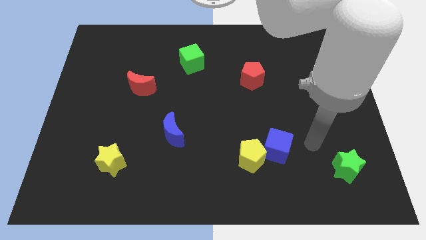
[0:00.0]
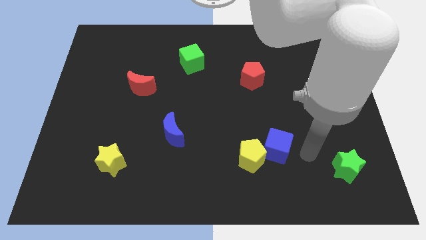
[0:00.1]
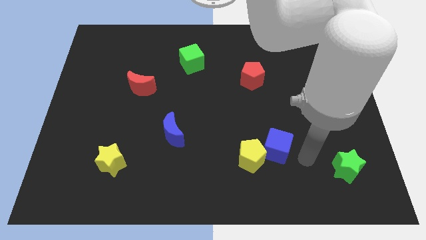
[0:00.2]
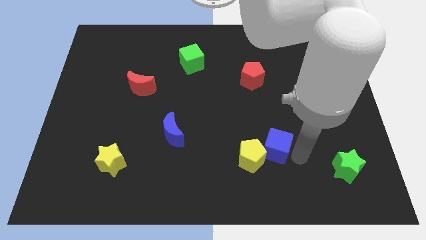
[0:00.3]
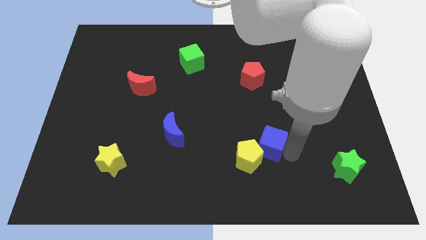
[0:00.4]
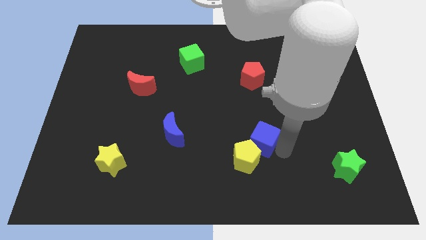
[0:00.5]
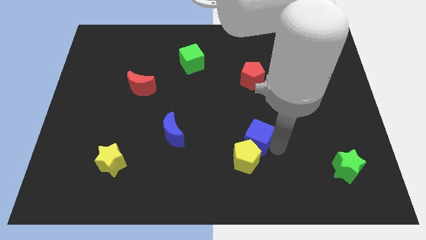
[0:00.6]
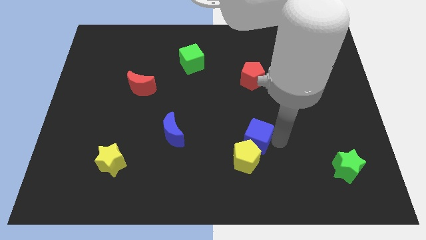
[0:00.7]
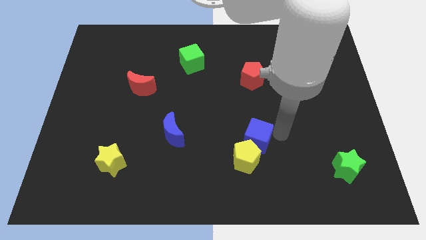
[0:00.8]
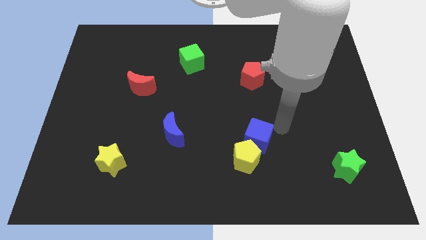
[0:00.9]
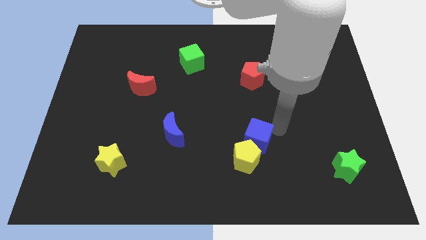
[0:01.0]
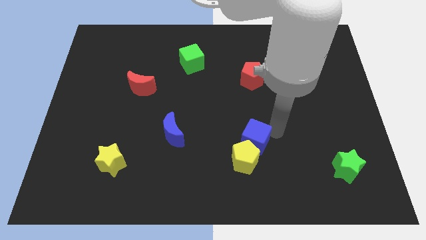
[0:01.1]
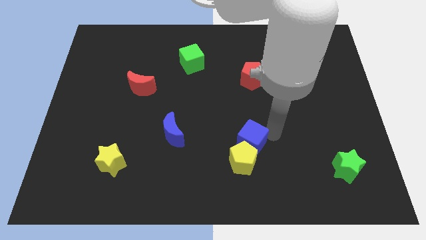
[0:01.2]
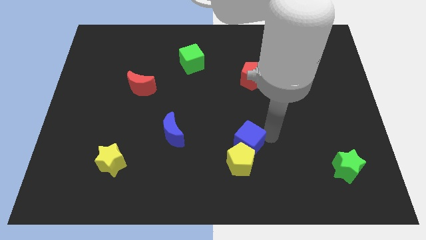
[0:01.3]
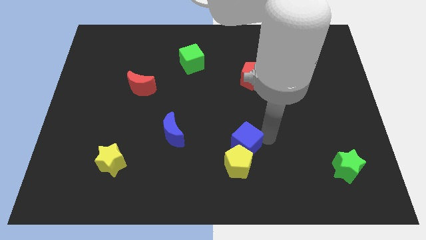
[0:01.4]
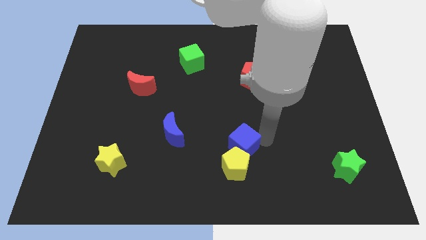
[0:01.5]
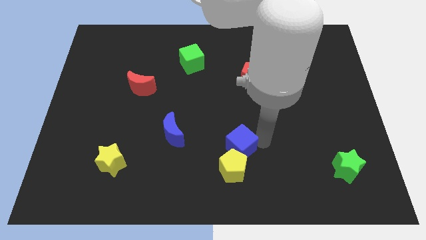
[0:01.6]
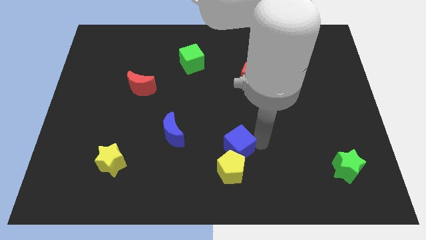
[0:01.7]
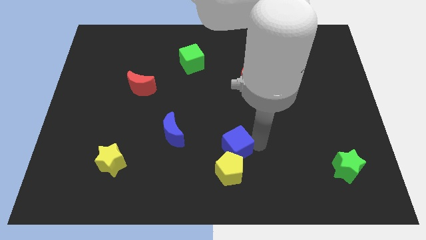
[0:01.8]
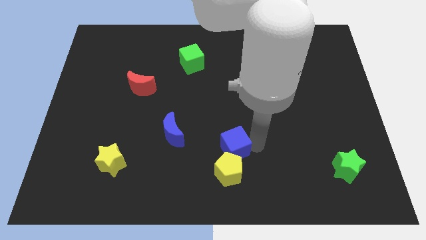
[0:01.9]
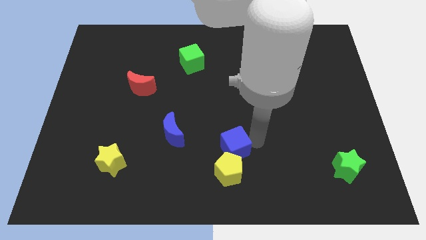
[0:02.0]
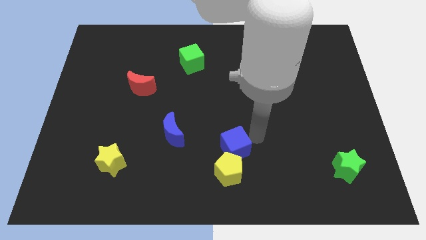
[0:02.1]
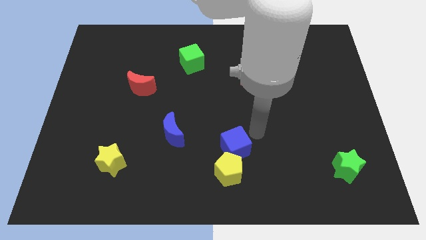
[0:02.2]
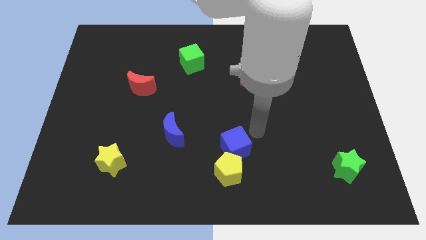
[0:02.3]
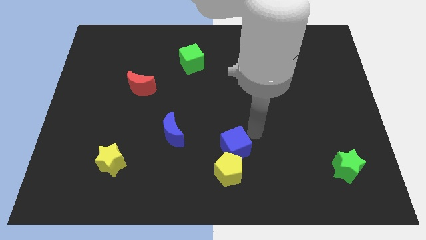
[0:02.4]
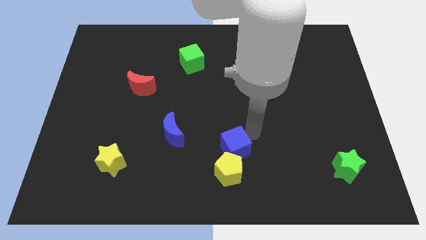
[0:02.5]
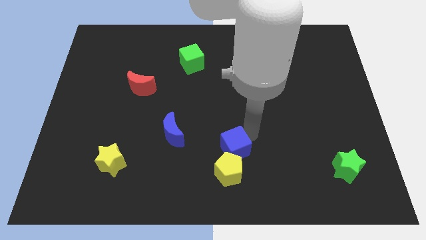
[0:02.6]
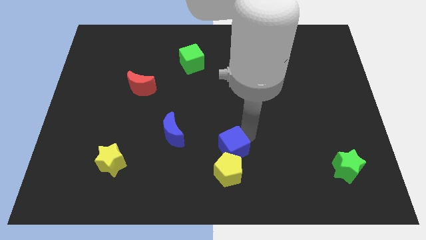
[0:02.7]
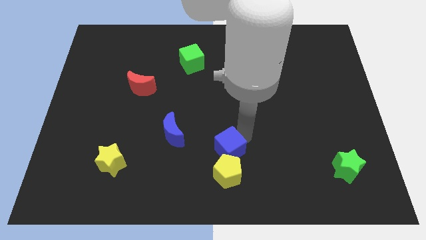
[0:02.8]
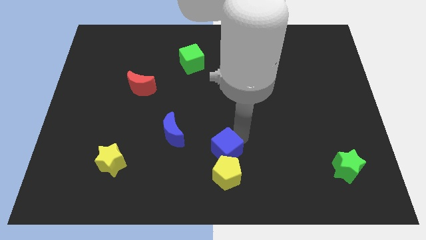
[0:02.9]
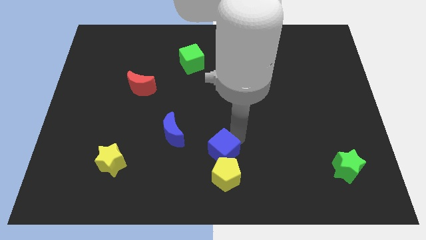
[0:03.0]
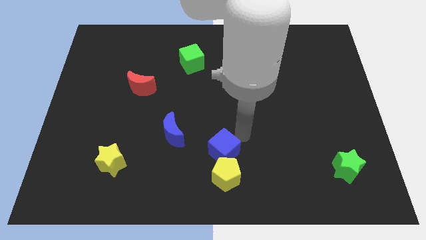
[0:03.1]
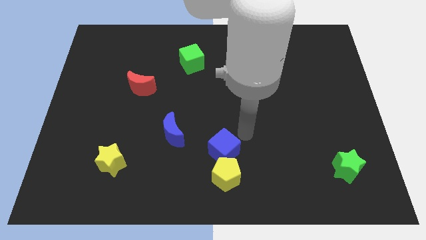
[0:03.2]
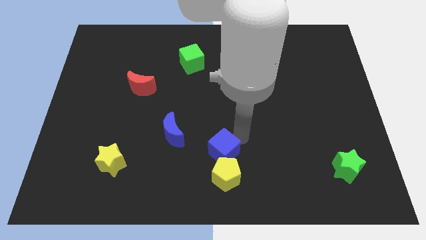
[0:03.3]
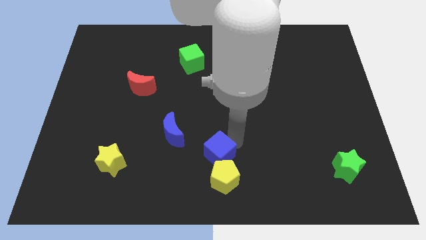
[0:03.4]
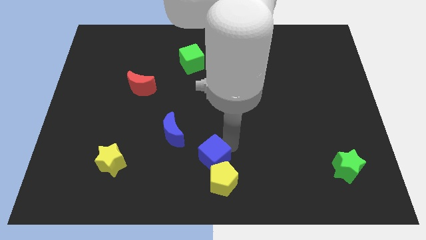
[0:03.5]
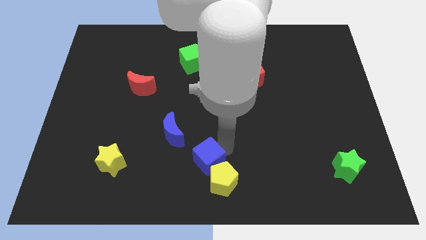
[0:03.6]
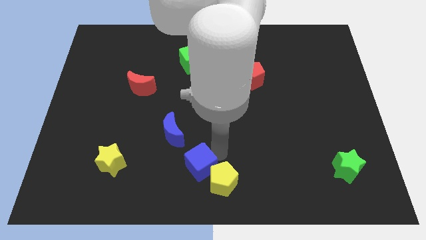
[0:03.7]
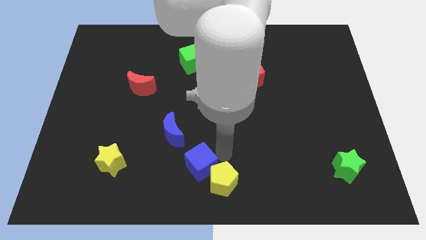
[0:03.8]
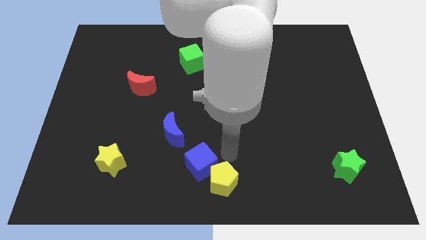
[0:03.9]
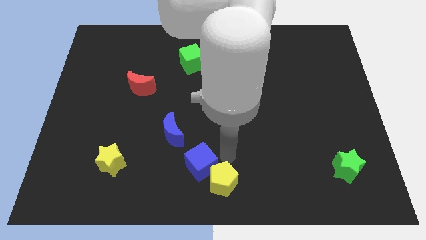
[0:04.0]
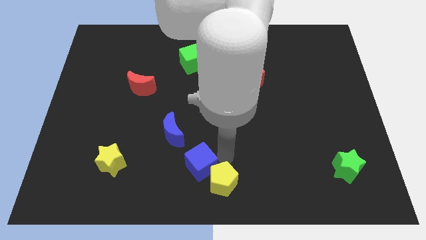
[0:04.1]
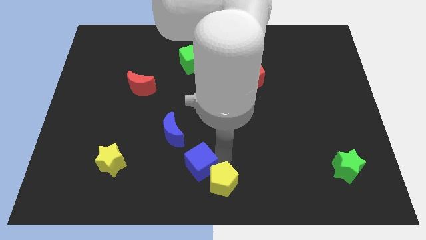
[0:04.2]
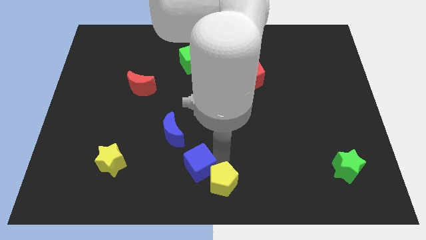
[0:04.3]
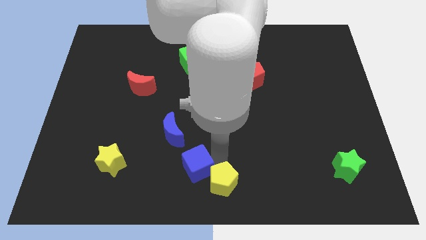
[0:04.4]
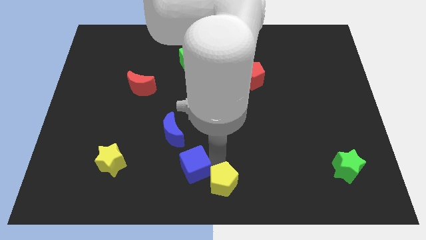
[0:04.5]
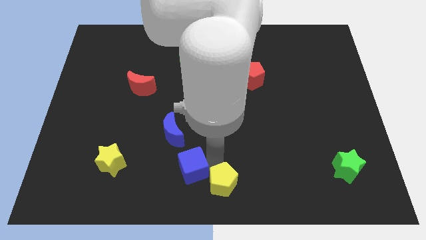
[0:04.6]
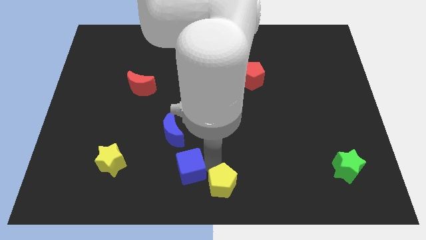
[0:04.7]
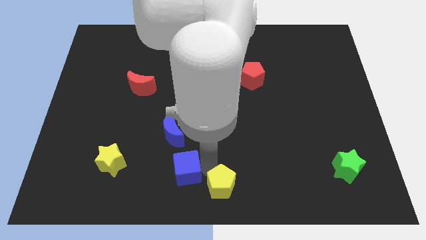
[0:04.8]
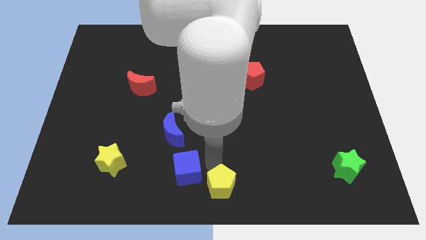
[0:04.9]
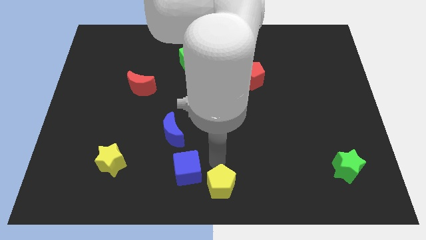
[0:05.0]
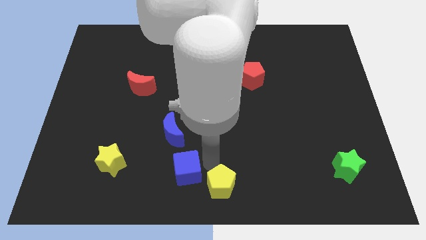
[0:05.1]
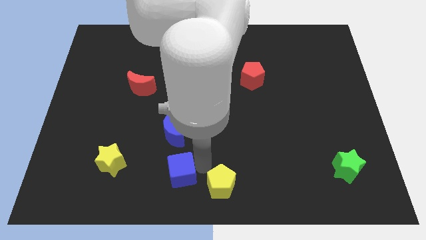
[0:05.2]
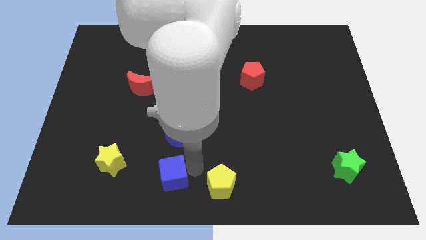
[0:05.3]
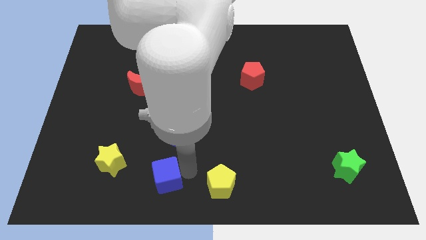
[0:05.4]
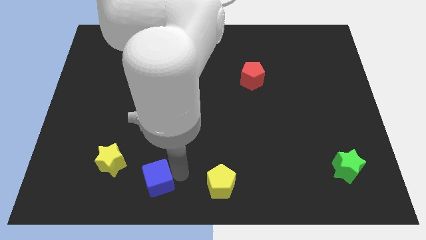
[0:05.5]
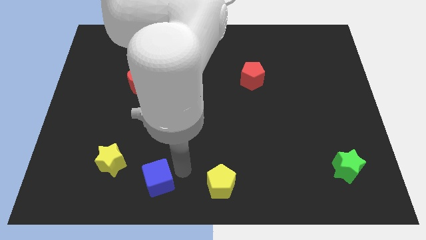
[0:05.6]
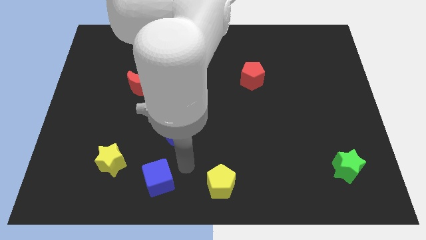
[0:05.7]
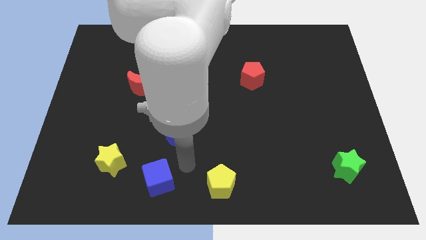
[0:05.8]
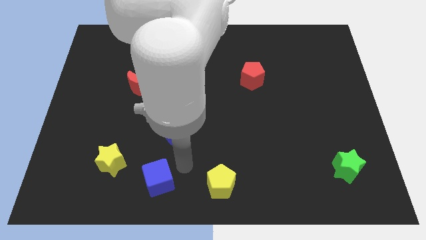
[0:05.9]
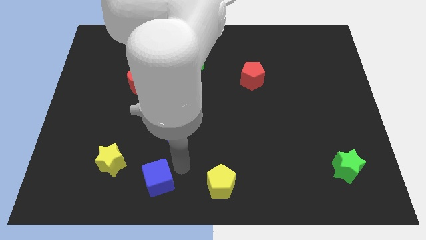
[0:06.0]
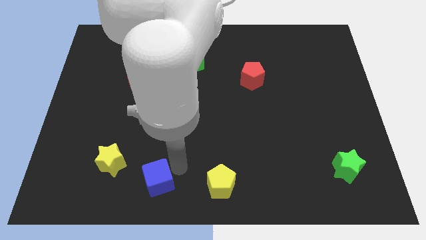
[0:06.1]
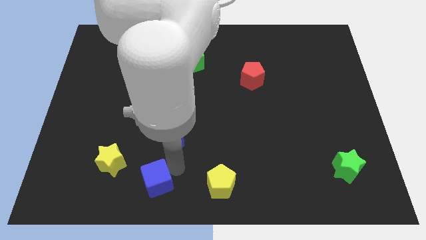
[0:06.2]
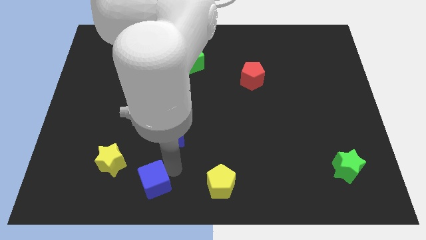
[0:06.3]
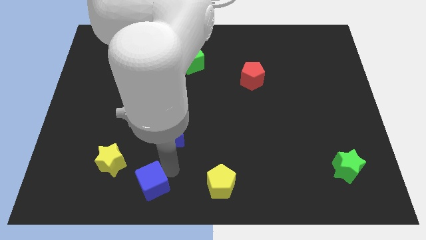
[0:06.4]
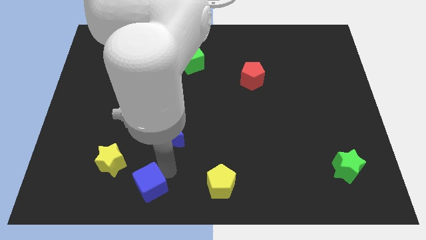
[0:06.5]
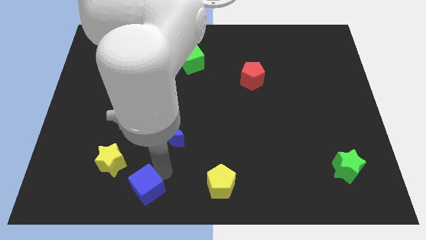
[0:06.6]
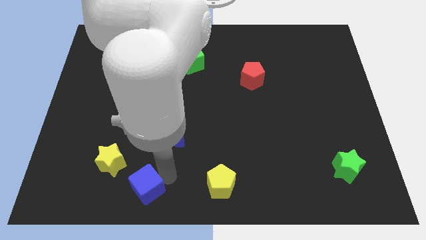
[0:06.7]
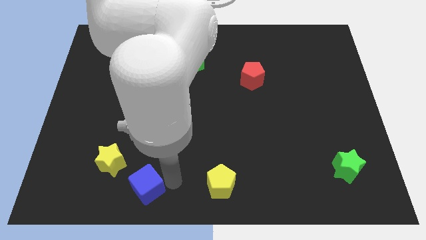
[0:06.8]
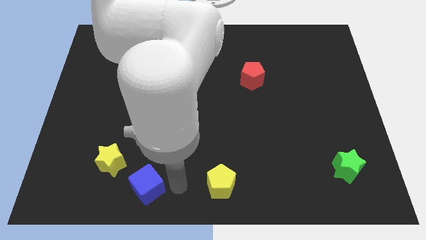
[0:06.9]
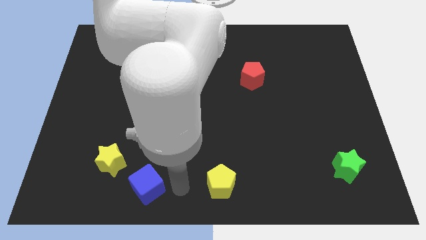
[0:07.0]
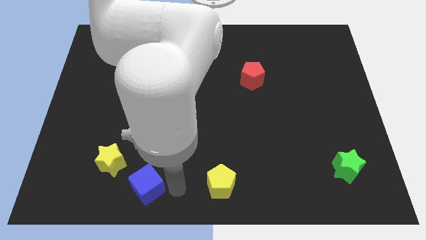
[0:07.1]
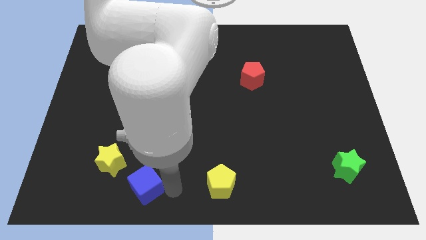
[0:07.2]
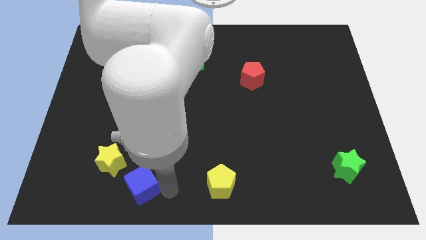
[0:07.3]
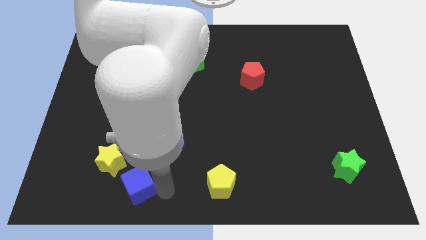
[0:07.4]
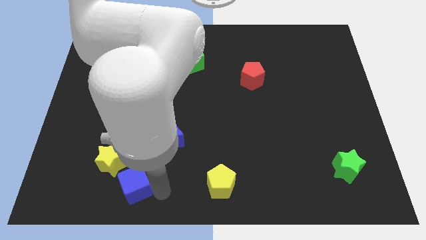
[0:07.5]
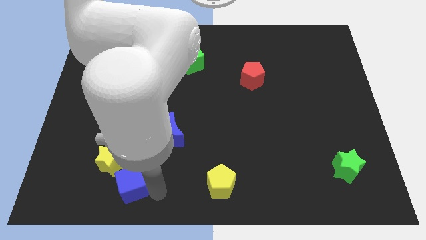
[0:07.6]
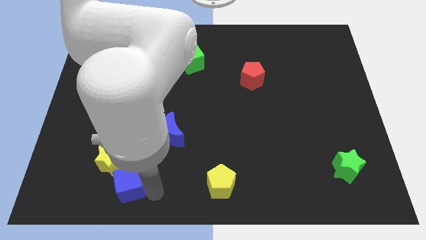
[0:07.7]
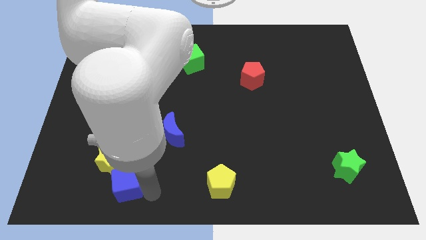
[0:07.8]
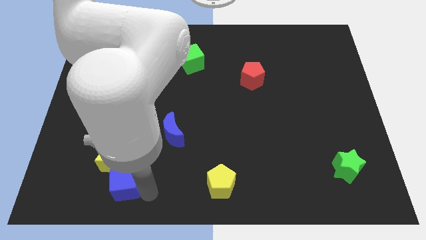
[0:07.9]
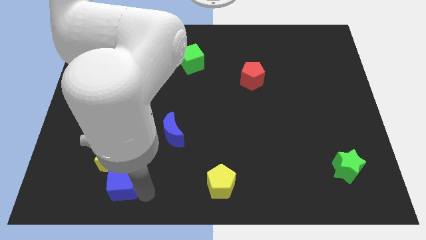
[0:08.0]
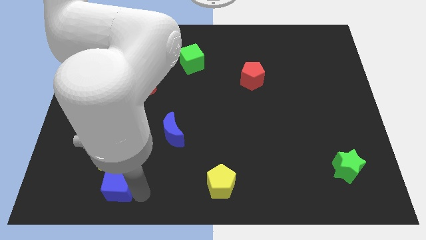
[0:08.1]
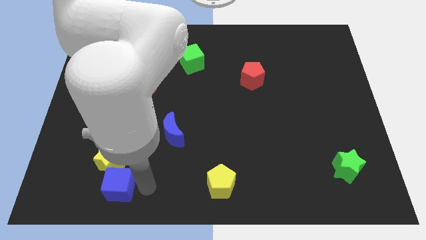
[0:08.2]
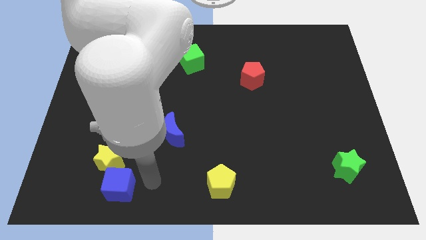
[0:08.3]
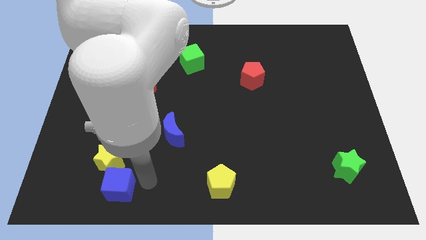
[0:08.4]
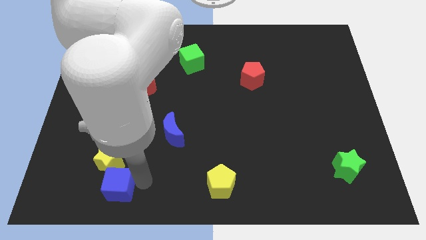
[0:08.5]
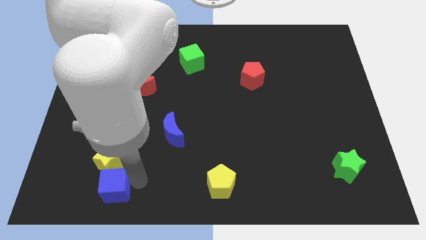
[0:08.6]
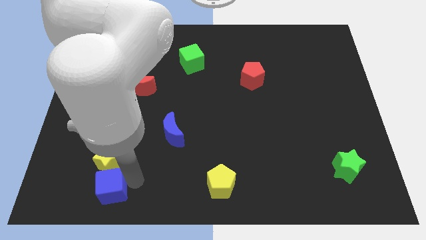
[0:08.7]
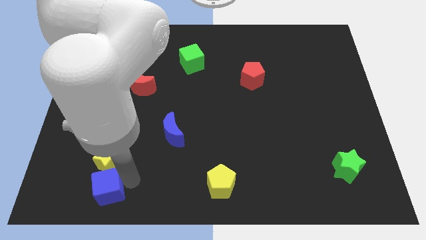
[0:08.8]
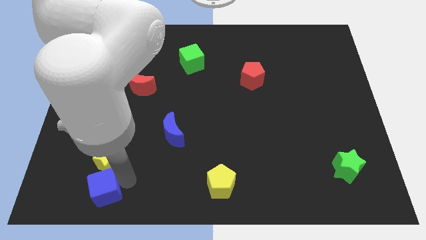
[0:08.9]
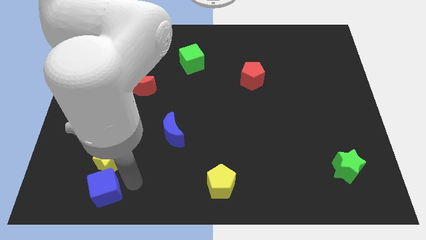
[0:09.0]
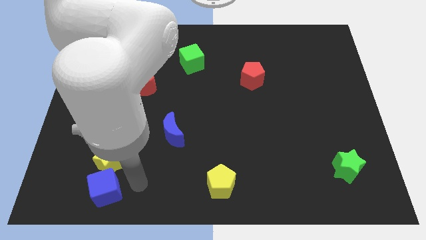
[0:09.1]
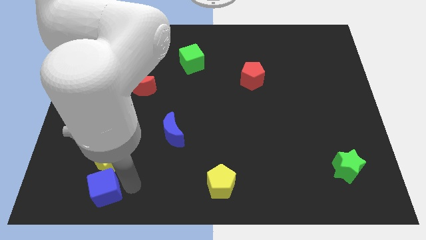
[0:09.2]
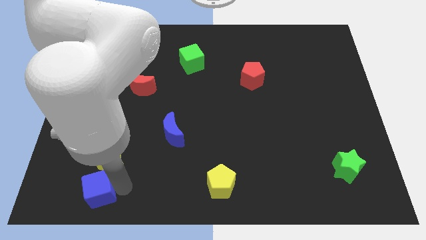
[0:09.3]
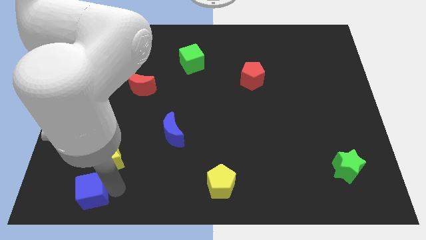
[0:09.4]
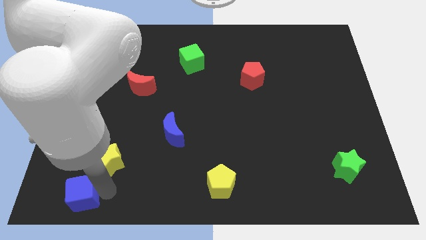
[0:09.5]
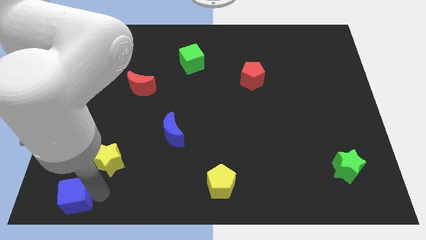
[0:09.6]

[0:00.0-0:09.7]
move the blue cube to the bottom left
